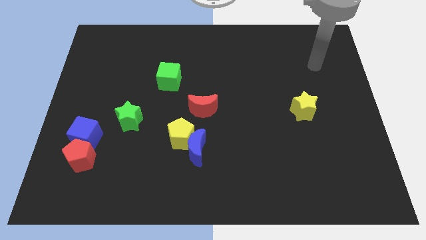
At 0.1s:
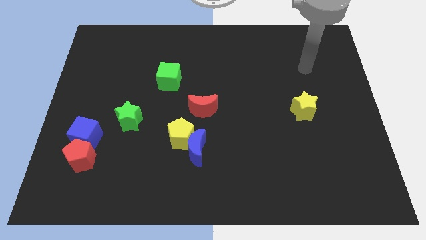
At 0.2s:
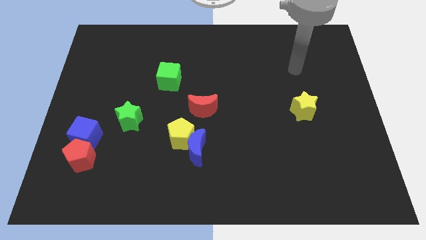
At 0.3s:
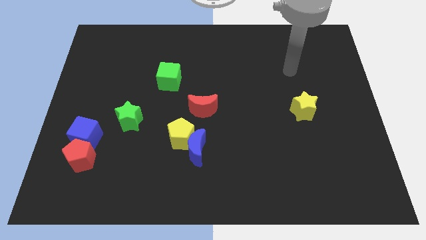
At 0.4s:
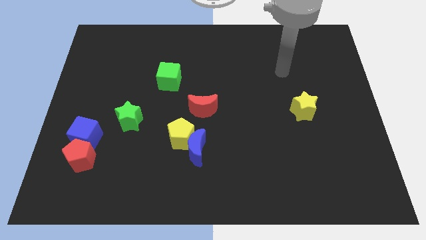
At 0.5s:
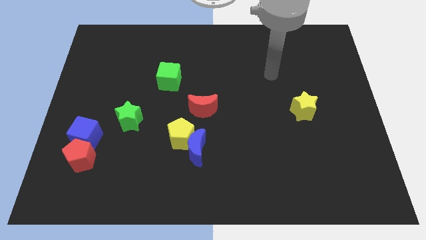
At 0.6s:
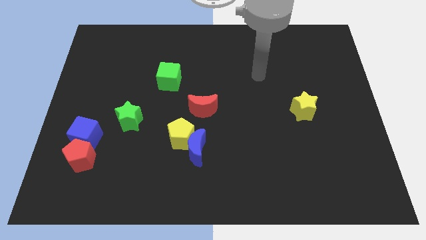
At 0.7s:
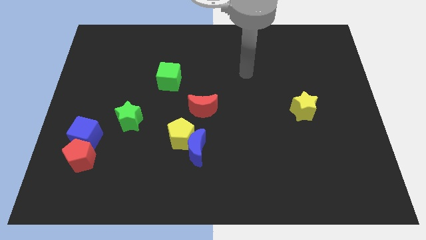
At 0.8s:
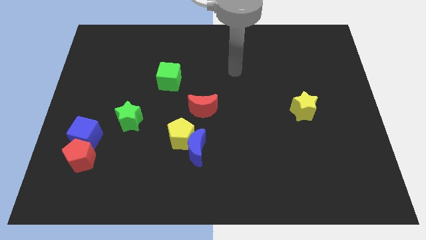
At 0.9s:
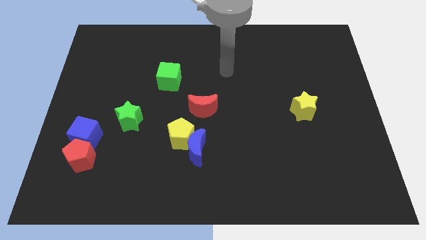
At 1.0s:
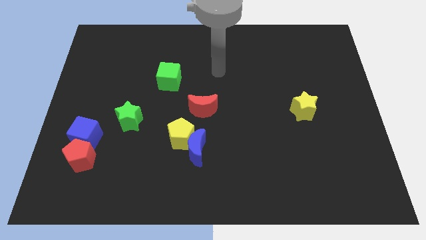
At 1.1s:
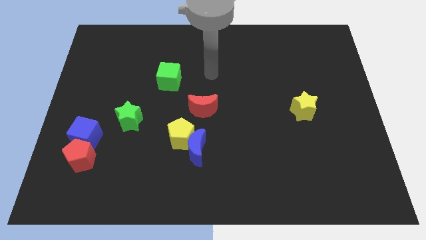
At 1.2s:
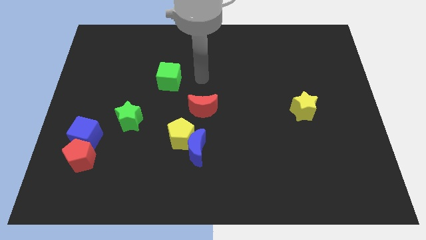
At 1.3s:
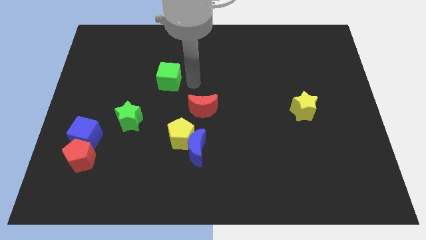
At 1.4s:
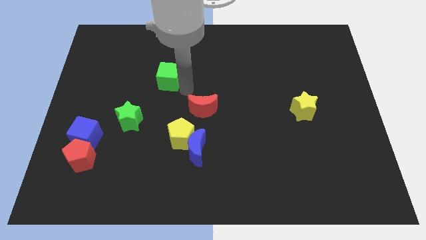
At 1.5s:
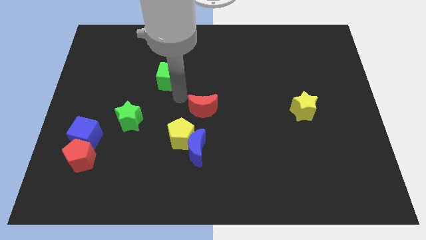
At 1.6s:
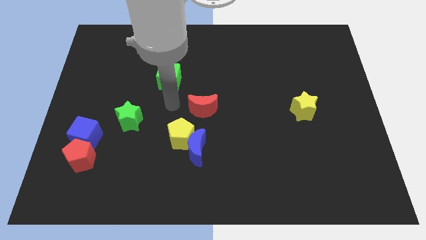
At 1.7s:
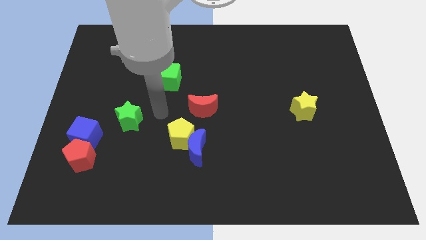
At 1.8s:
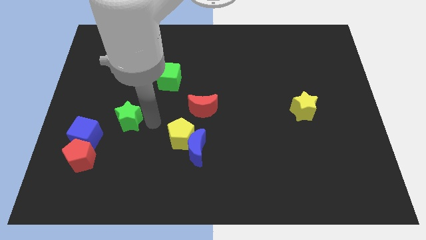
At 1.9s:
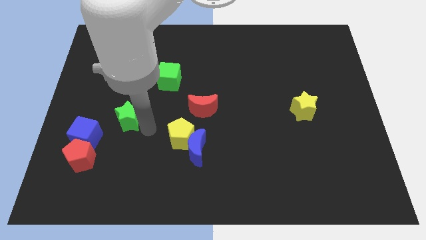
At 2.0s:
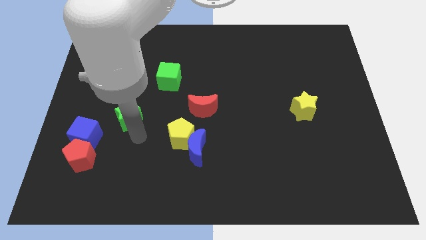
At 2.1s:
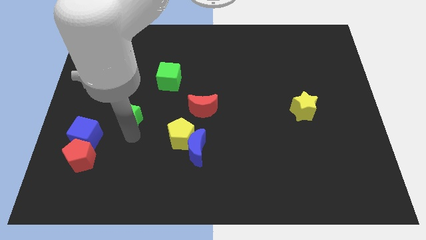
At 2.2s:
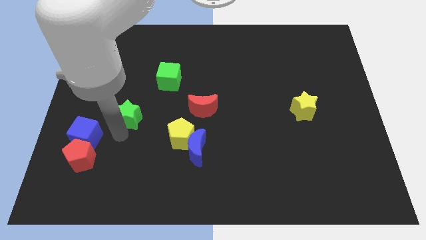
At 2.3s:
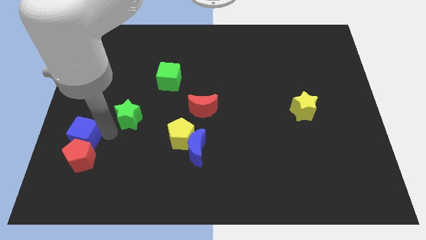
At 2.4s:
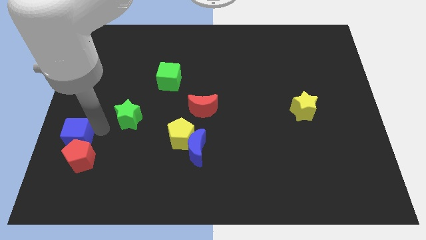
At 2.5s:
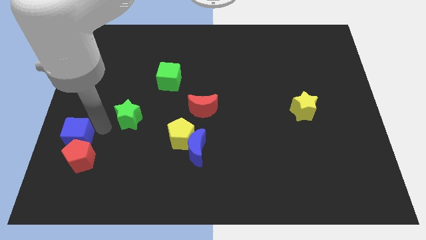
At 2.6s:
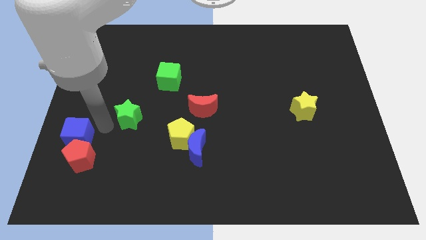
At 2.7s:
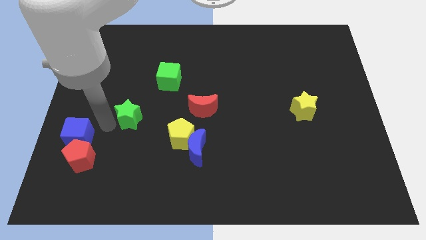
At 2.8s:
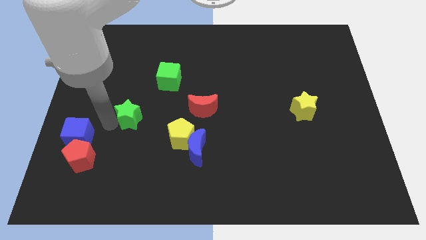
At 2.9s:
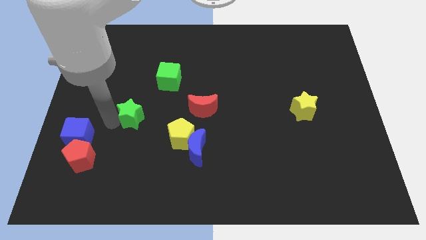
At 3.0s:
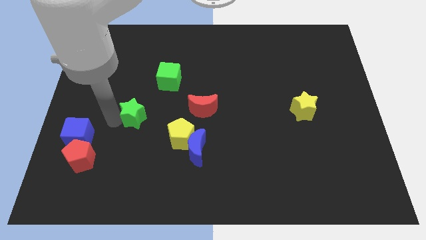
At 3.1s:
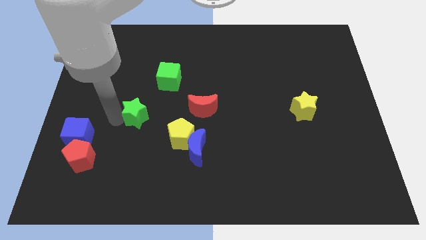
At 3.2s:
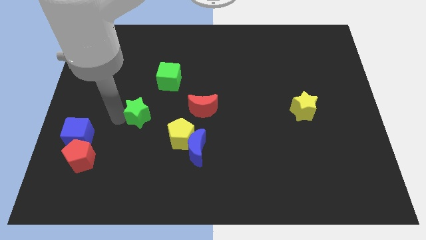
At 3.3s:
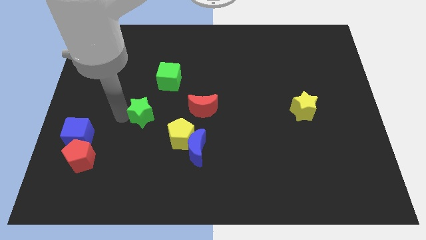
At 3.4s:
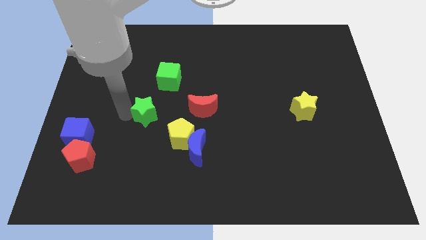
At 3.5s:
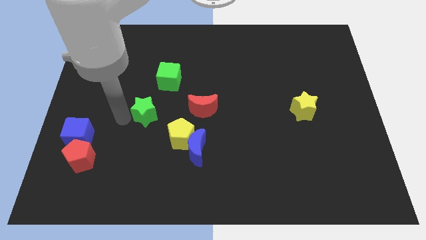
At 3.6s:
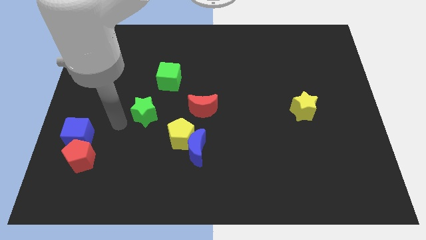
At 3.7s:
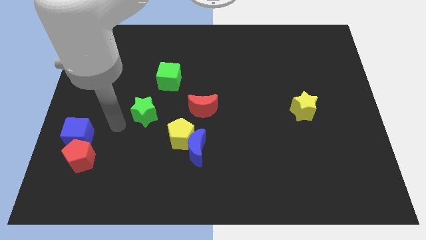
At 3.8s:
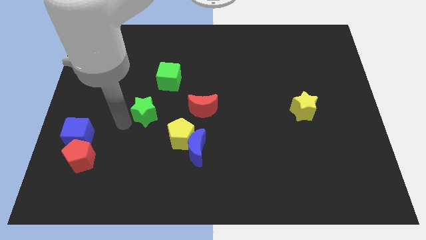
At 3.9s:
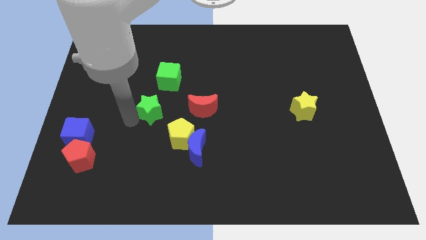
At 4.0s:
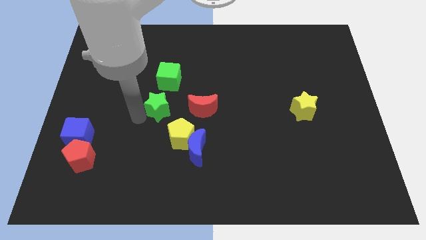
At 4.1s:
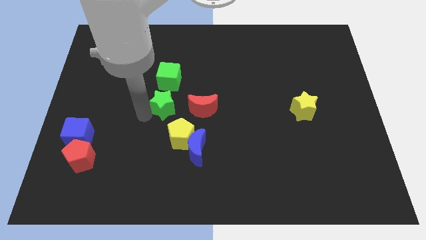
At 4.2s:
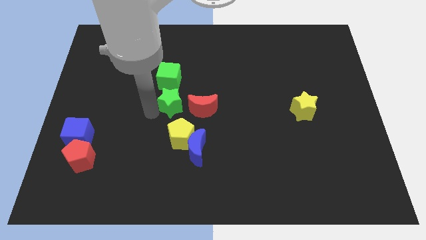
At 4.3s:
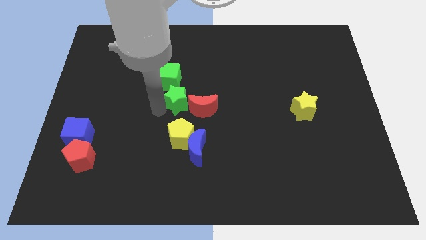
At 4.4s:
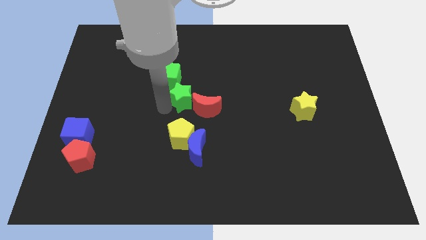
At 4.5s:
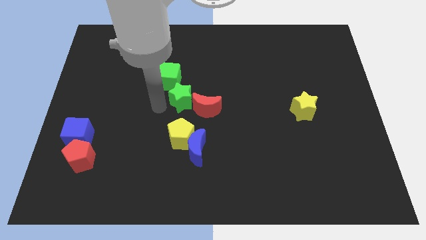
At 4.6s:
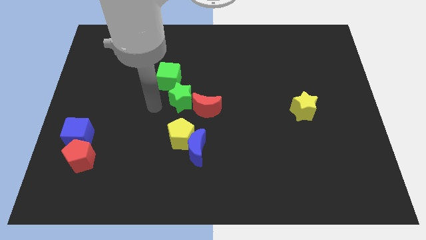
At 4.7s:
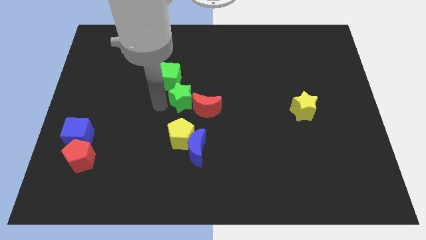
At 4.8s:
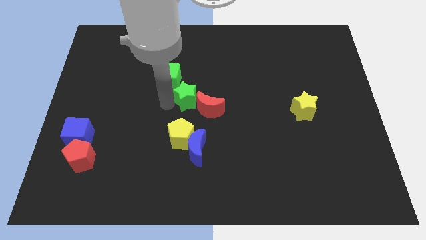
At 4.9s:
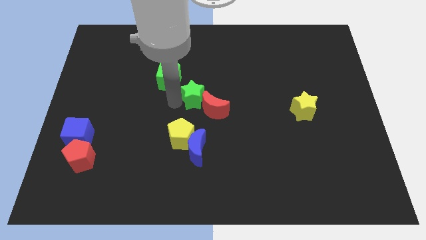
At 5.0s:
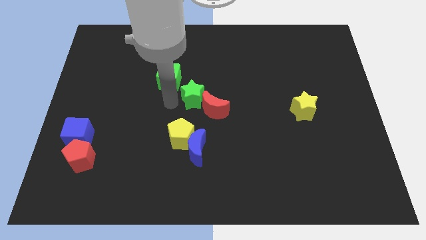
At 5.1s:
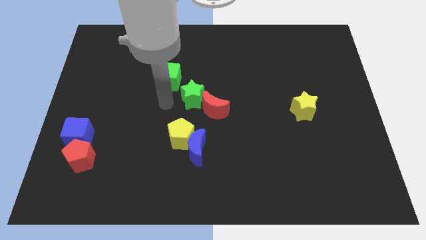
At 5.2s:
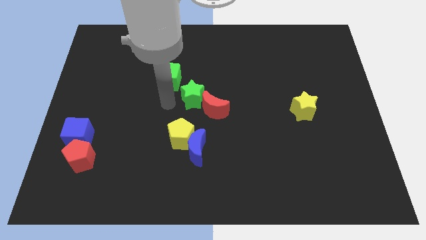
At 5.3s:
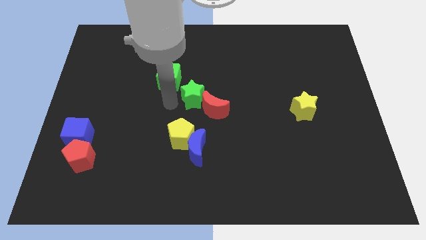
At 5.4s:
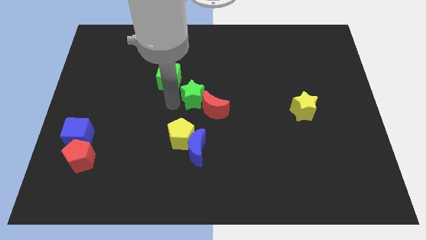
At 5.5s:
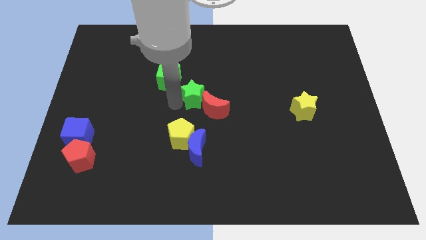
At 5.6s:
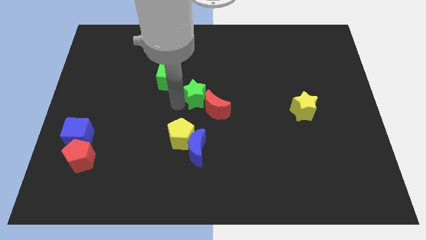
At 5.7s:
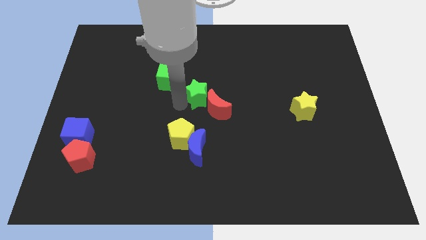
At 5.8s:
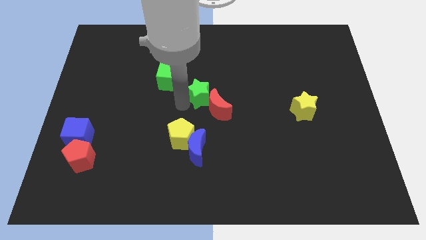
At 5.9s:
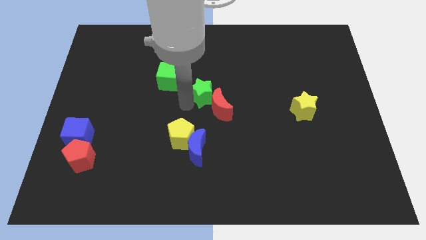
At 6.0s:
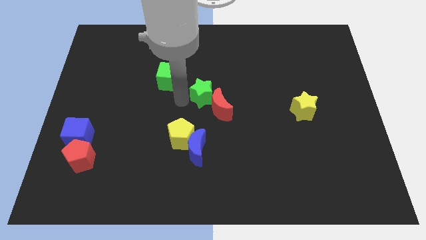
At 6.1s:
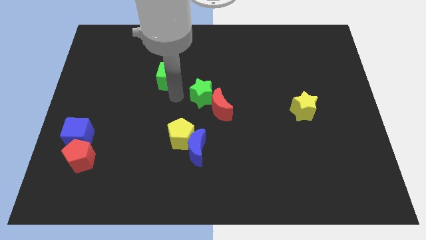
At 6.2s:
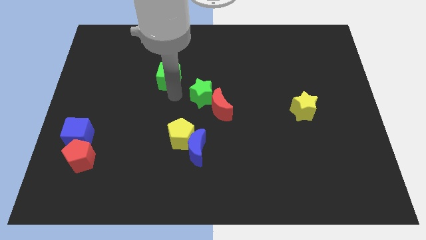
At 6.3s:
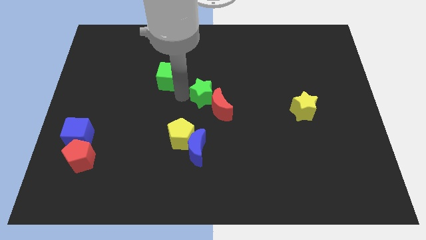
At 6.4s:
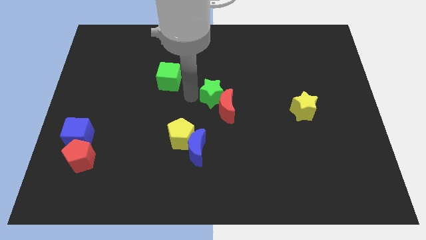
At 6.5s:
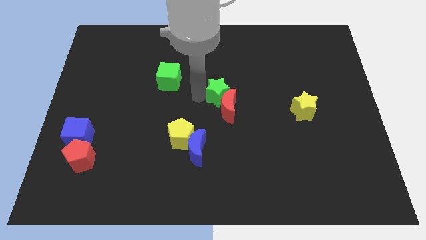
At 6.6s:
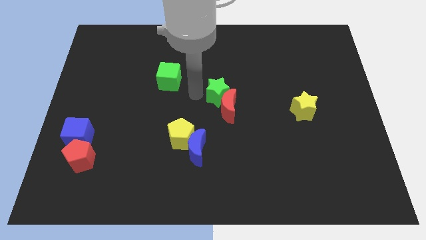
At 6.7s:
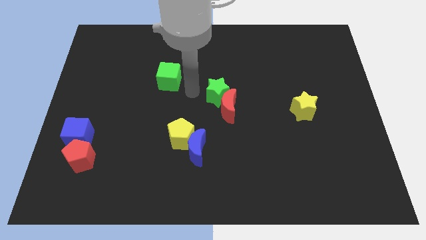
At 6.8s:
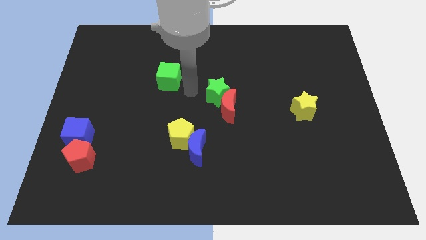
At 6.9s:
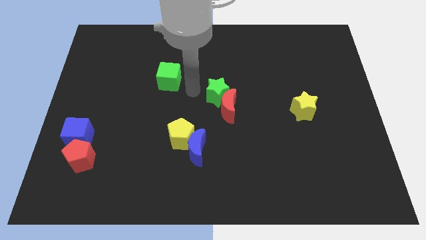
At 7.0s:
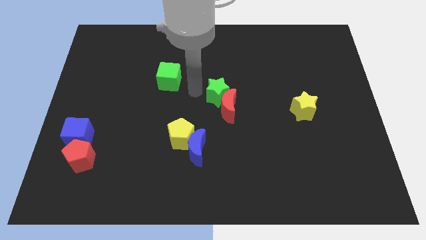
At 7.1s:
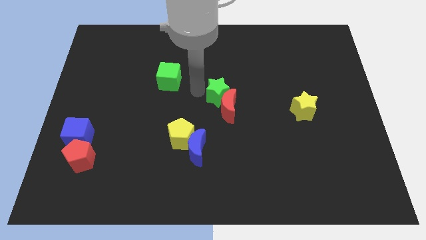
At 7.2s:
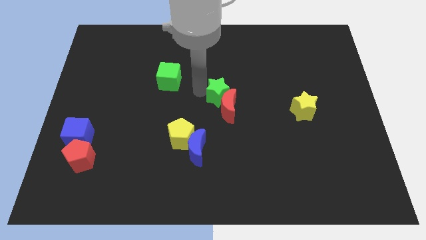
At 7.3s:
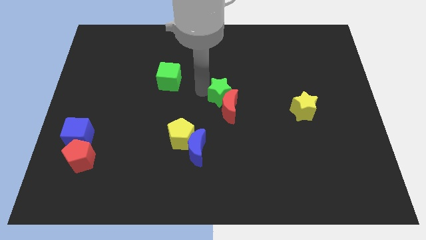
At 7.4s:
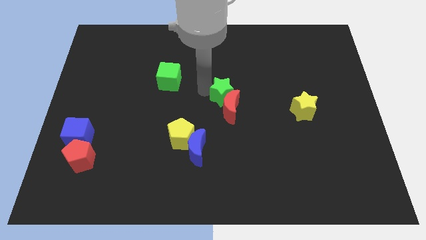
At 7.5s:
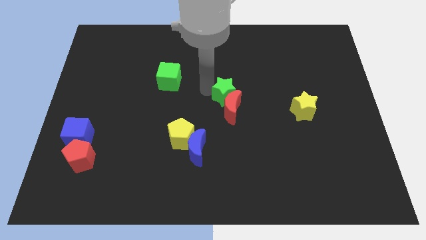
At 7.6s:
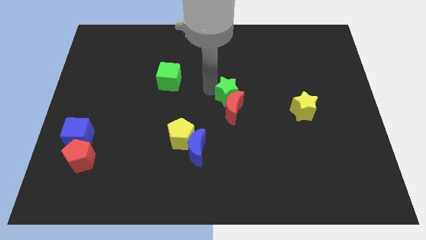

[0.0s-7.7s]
move the green star right

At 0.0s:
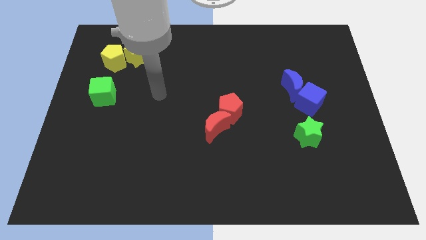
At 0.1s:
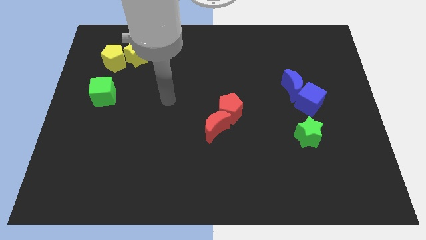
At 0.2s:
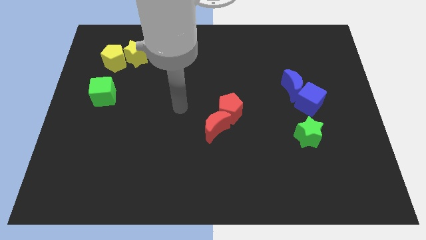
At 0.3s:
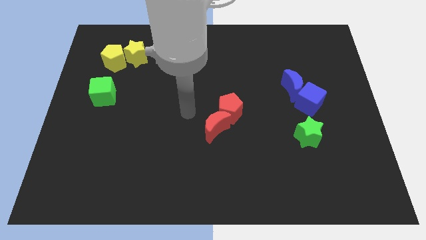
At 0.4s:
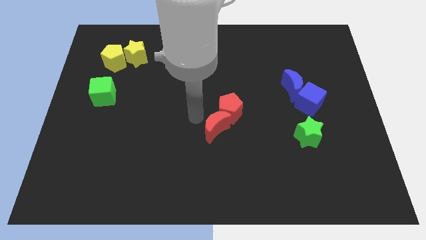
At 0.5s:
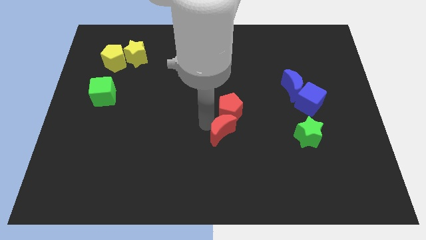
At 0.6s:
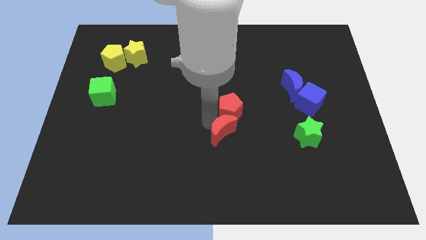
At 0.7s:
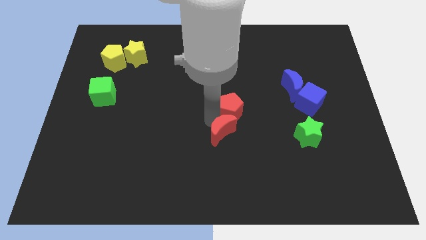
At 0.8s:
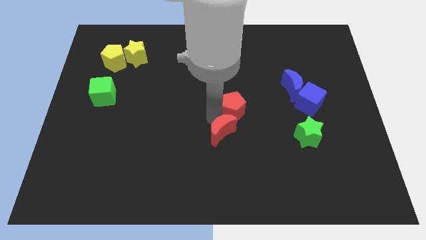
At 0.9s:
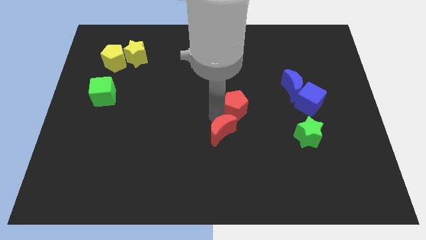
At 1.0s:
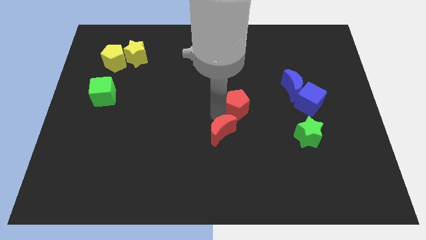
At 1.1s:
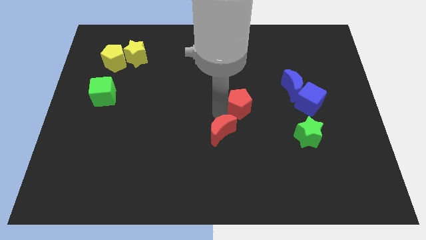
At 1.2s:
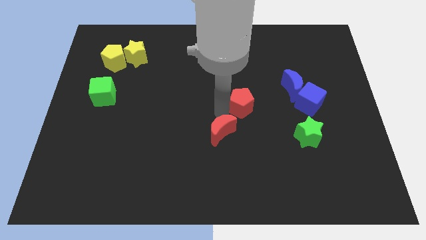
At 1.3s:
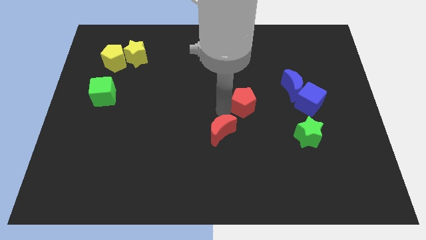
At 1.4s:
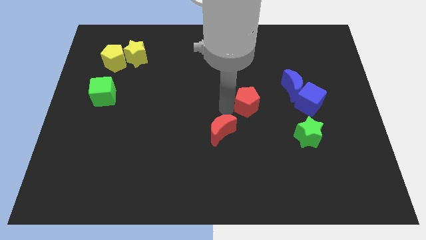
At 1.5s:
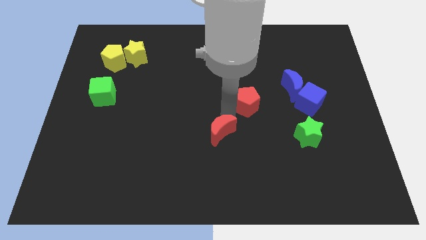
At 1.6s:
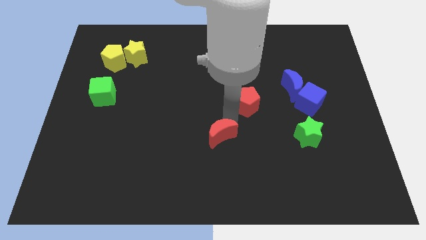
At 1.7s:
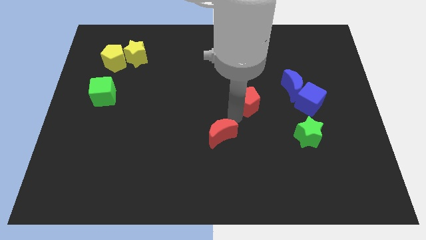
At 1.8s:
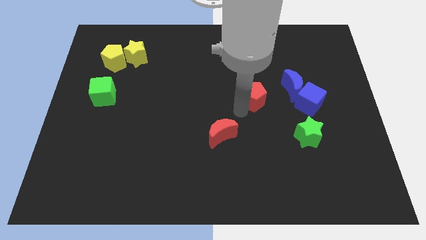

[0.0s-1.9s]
slightly push the red pentagon up and to the right
